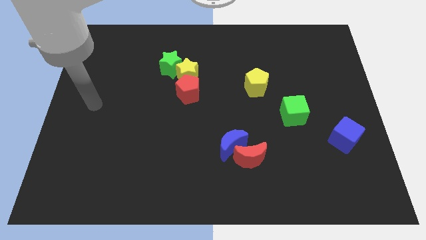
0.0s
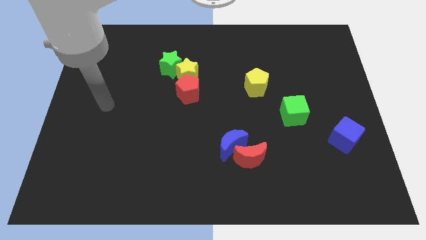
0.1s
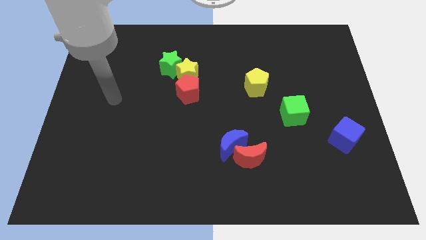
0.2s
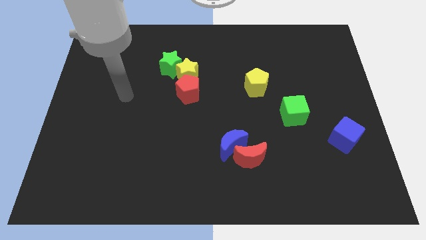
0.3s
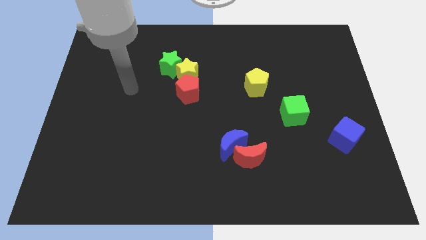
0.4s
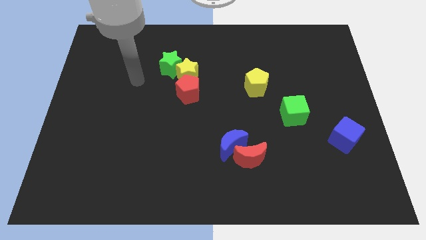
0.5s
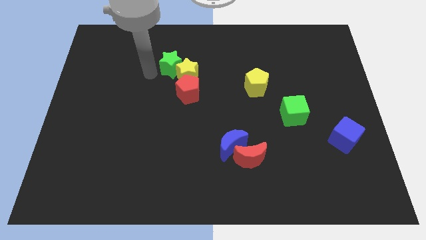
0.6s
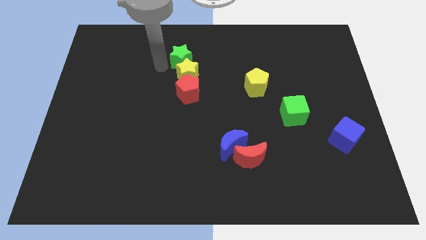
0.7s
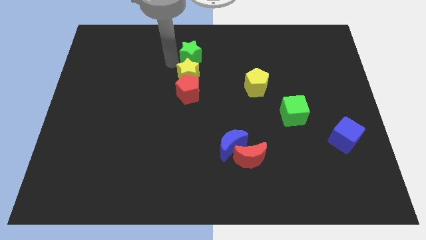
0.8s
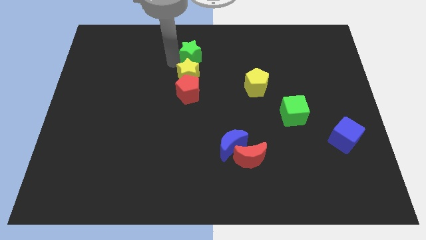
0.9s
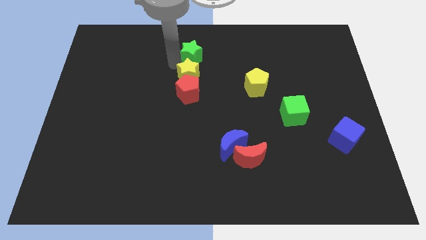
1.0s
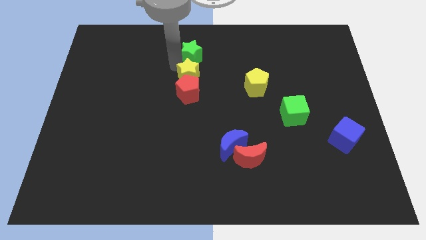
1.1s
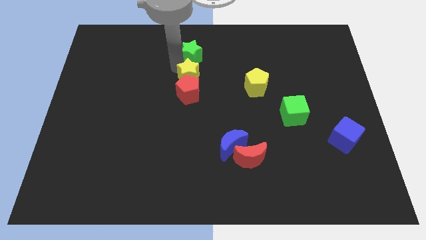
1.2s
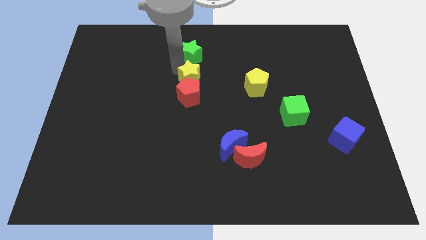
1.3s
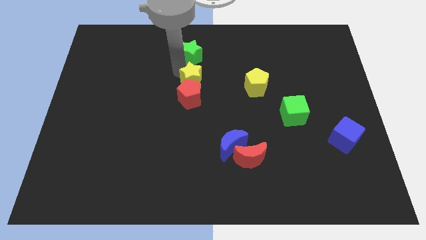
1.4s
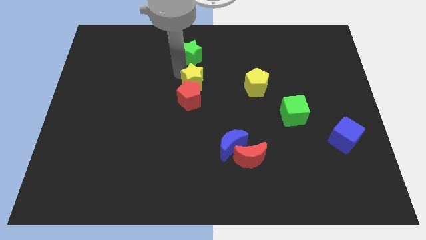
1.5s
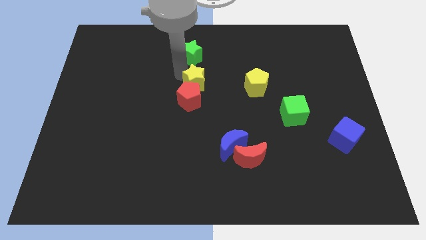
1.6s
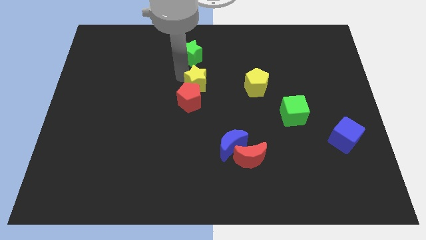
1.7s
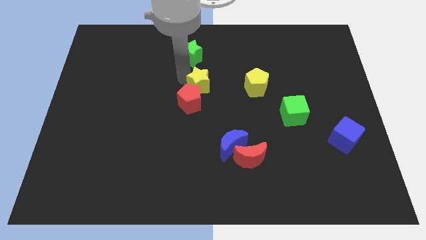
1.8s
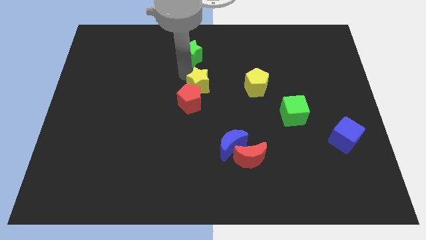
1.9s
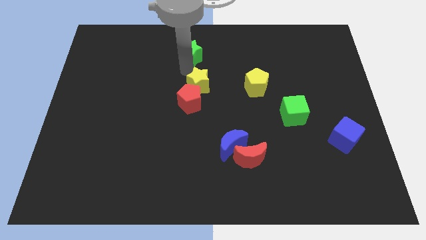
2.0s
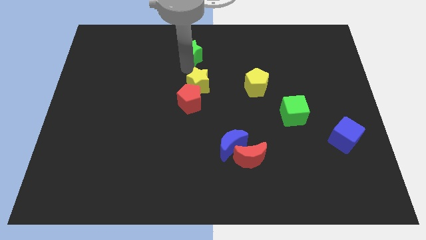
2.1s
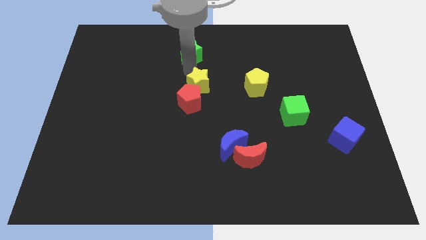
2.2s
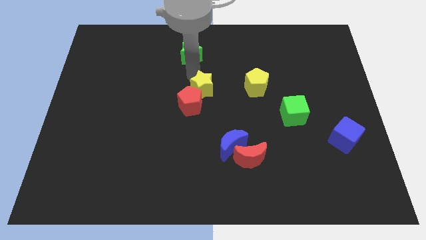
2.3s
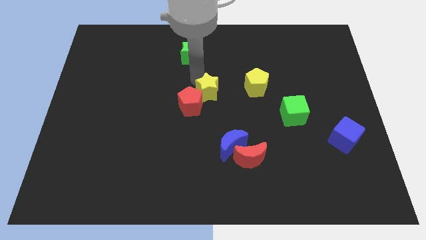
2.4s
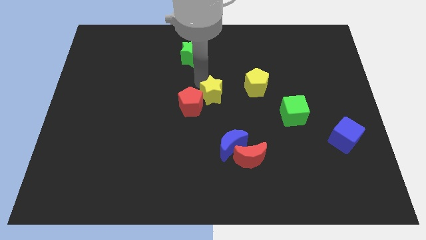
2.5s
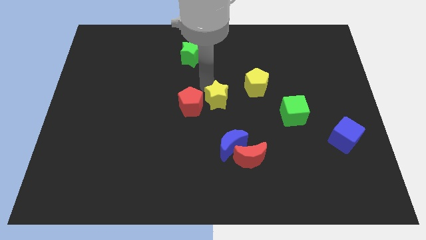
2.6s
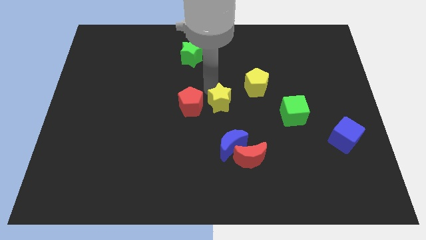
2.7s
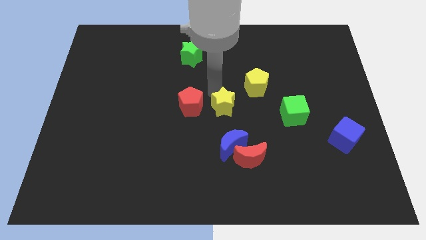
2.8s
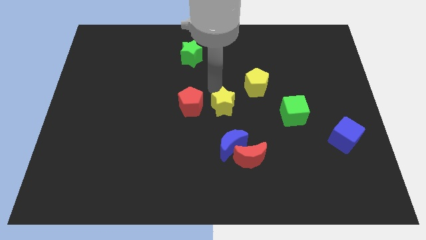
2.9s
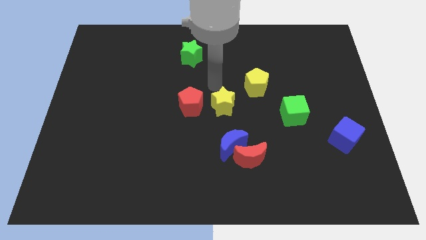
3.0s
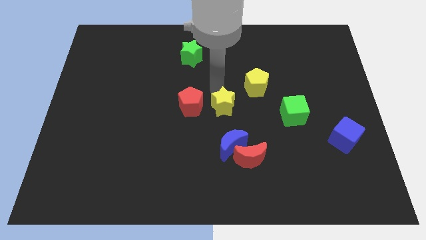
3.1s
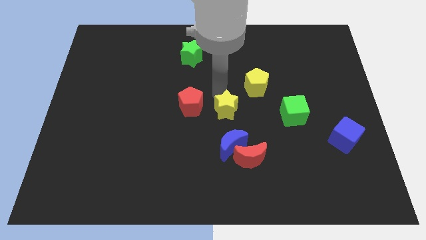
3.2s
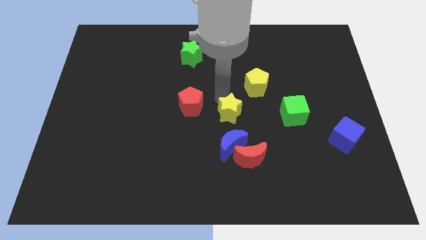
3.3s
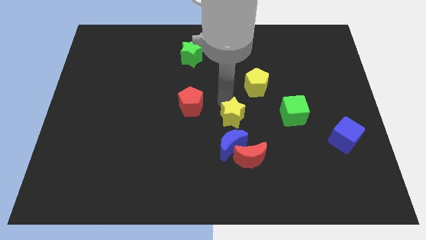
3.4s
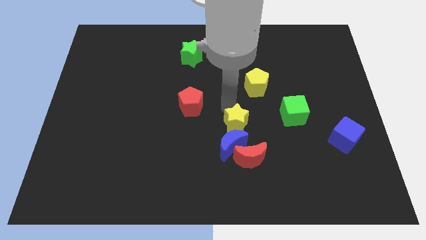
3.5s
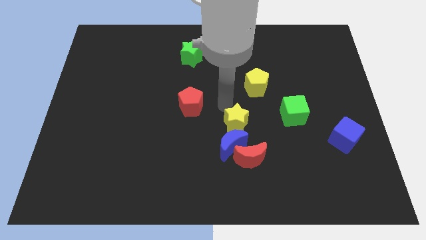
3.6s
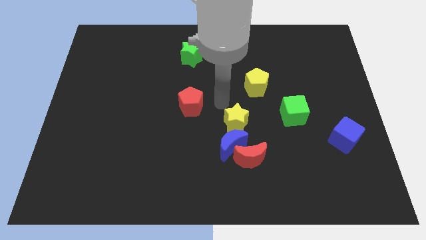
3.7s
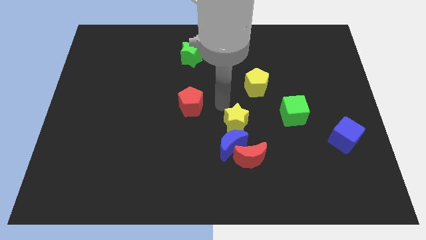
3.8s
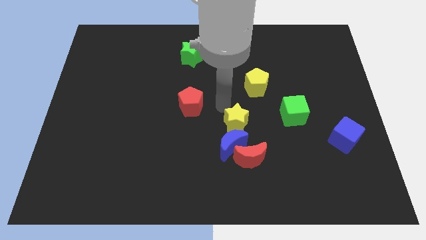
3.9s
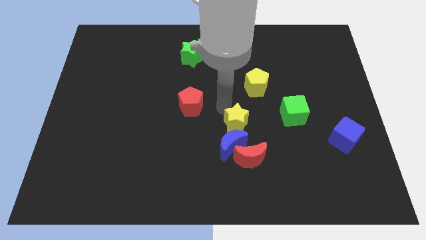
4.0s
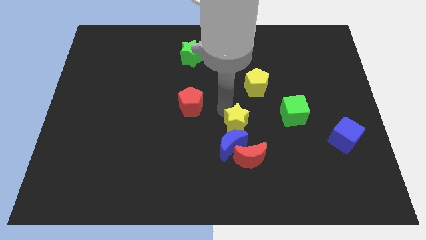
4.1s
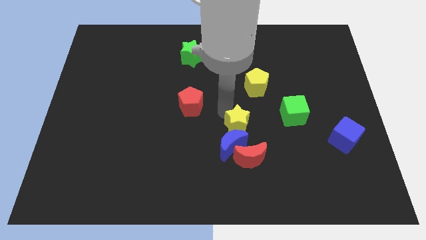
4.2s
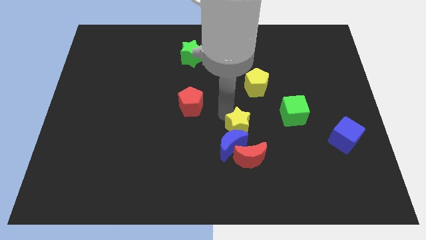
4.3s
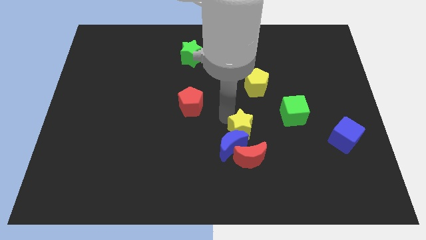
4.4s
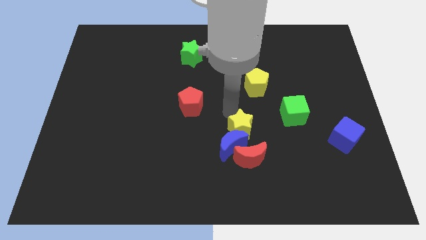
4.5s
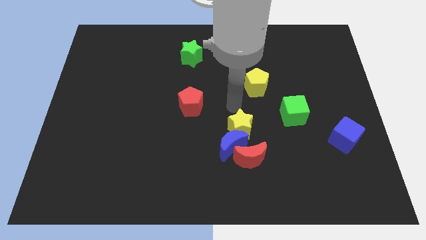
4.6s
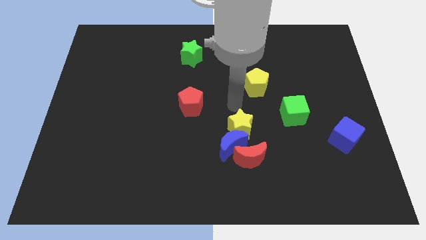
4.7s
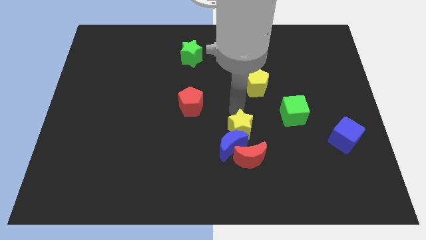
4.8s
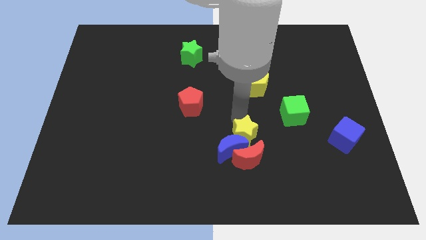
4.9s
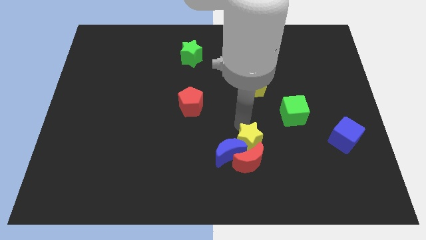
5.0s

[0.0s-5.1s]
move the yellow star towards the red moon

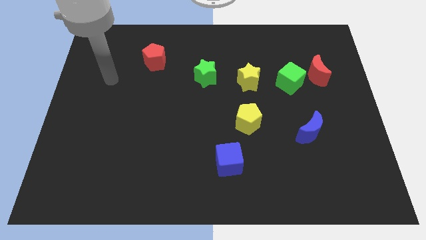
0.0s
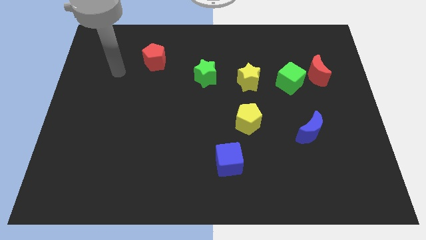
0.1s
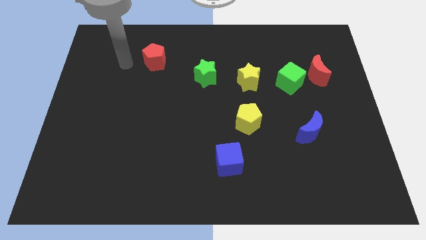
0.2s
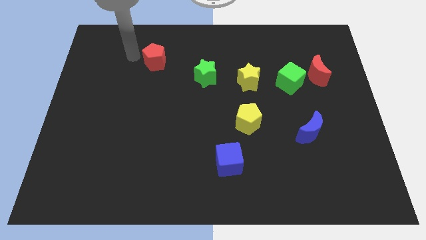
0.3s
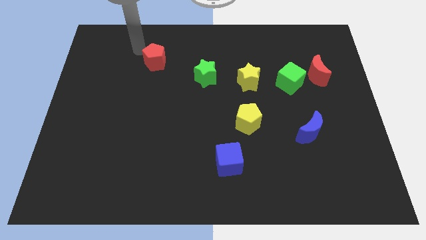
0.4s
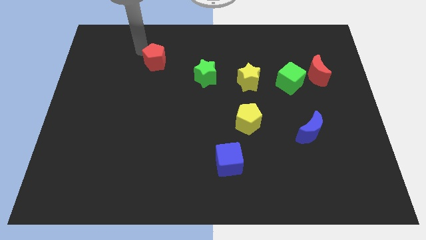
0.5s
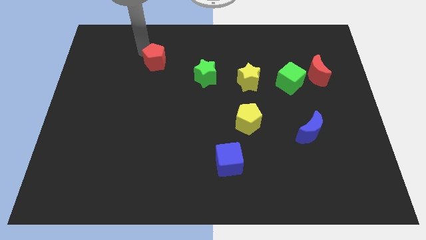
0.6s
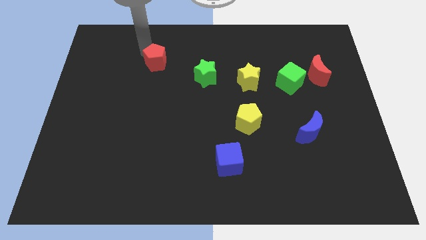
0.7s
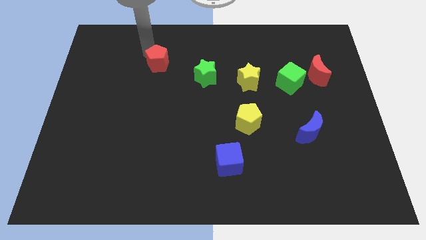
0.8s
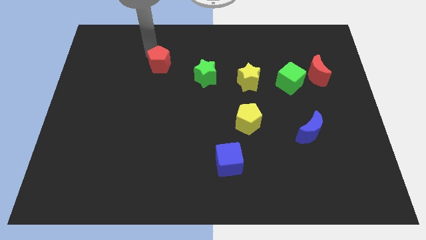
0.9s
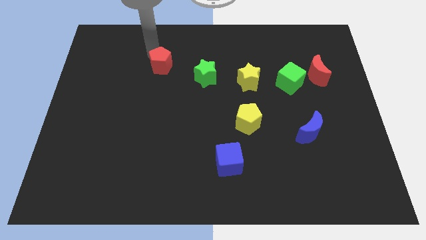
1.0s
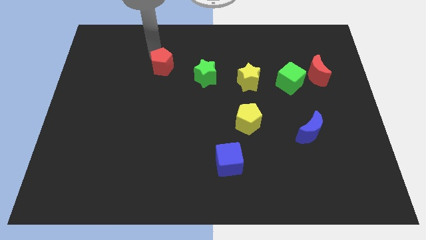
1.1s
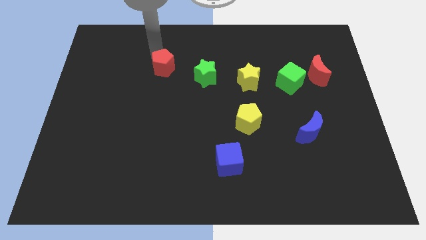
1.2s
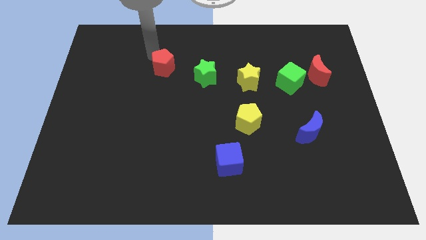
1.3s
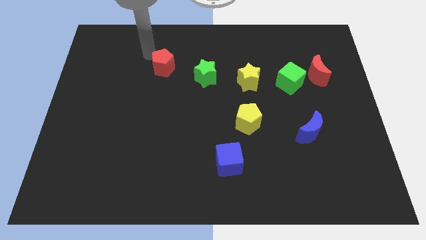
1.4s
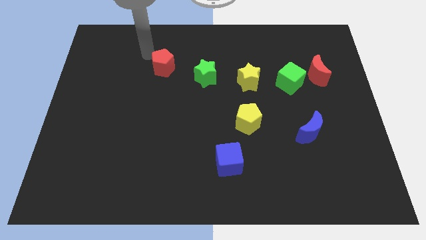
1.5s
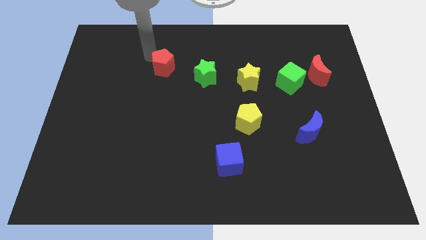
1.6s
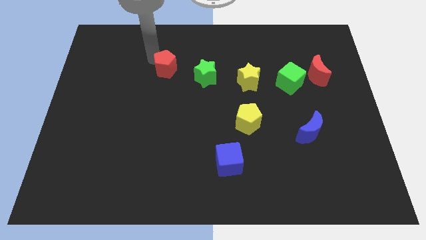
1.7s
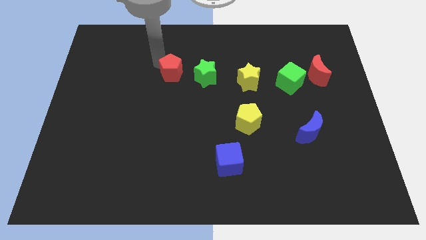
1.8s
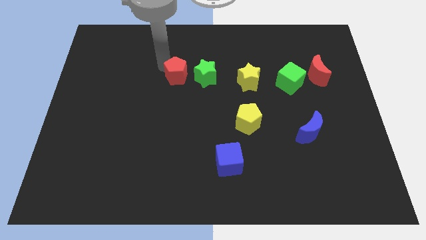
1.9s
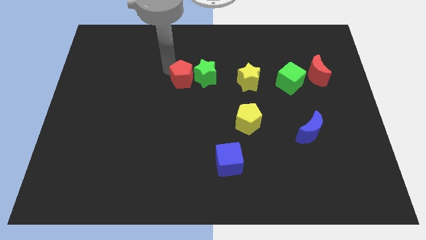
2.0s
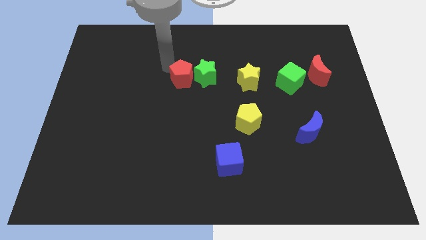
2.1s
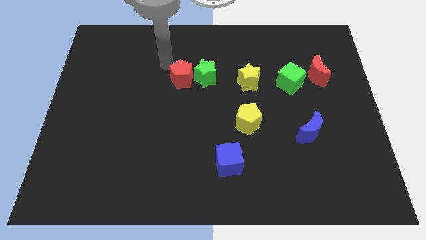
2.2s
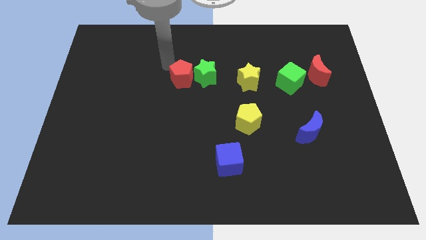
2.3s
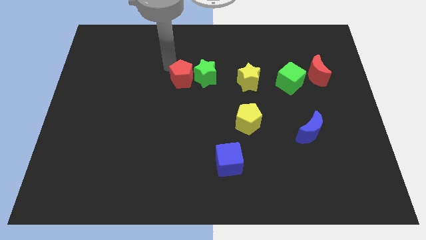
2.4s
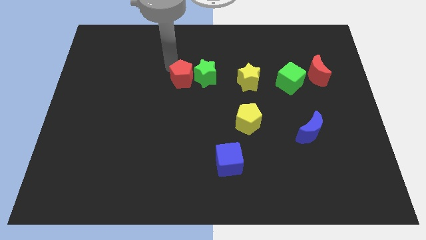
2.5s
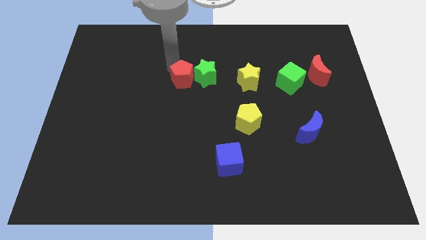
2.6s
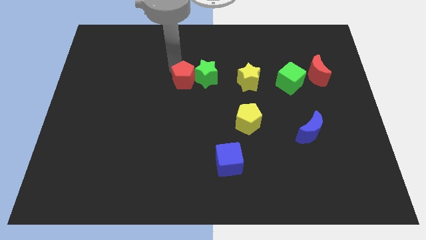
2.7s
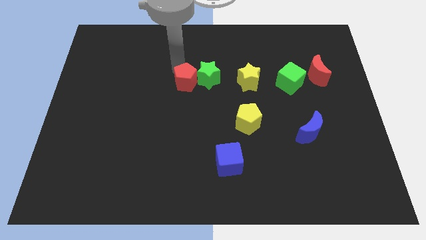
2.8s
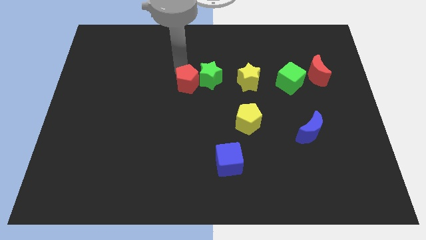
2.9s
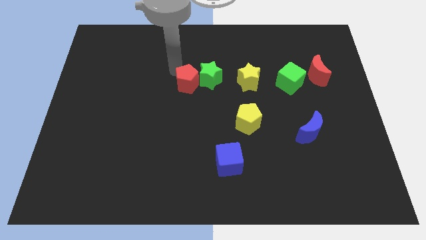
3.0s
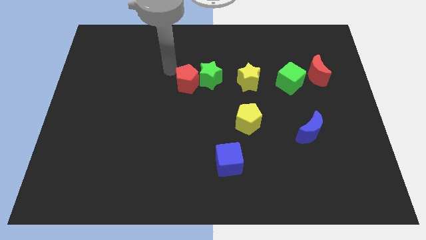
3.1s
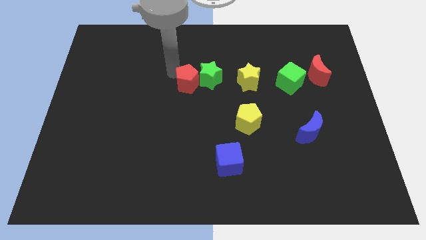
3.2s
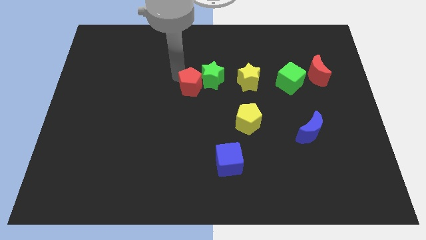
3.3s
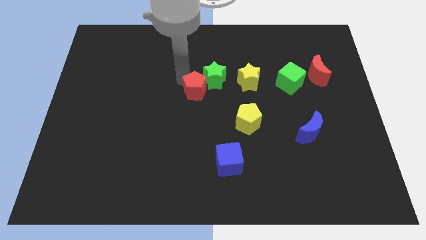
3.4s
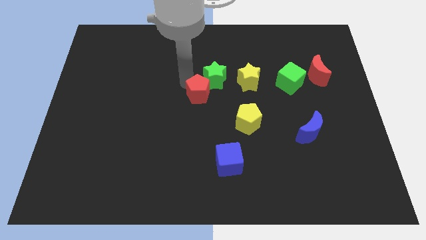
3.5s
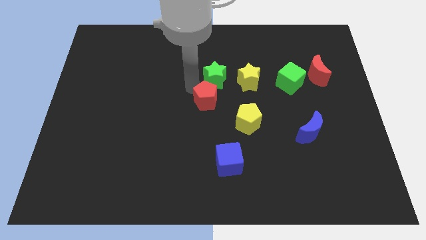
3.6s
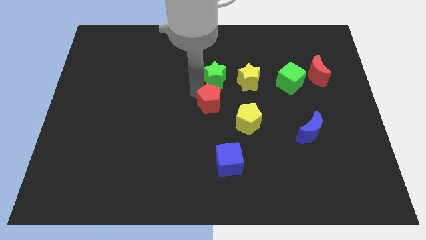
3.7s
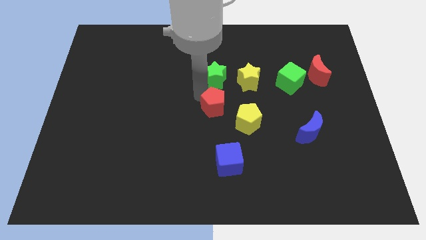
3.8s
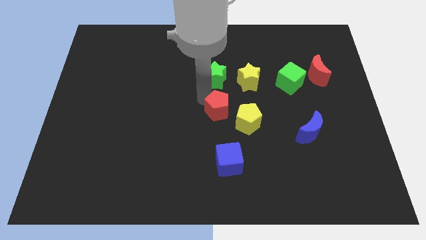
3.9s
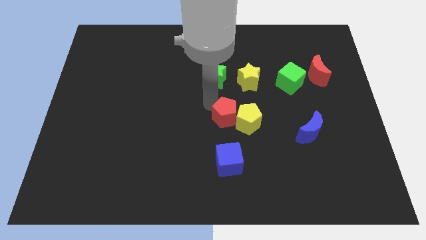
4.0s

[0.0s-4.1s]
move the red pentagon next to the yellow pentagon
